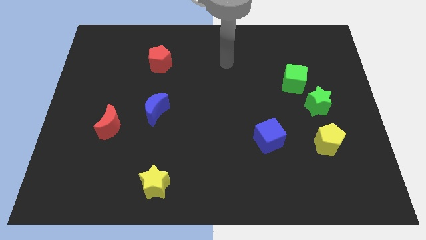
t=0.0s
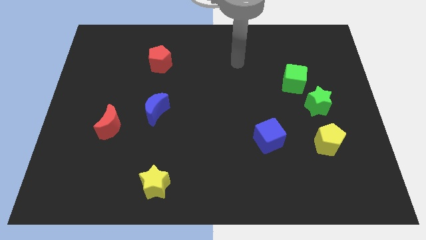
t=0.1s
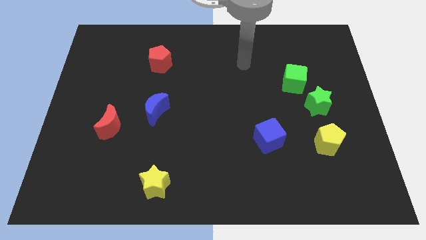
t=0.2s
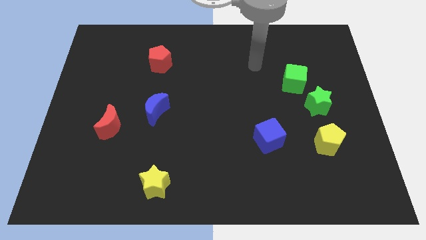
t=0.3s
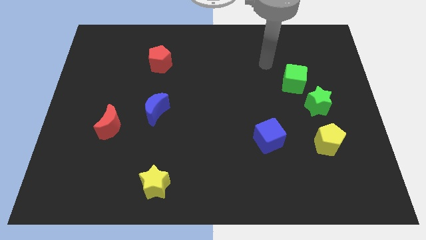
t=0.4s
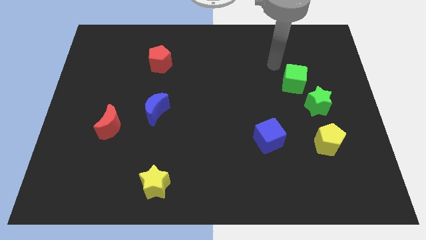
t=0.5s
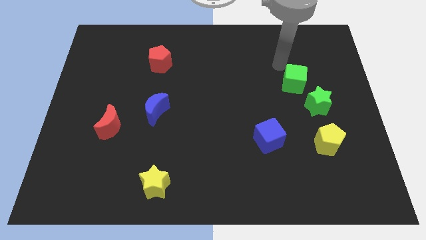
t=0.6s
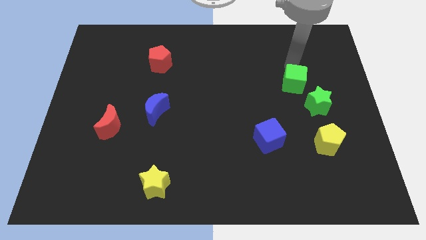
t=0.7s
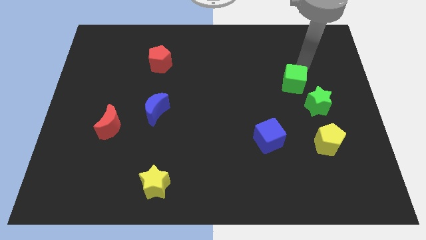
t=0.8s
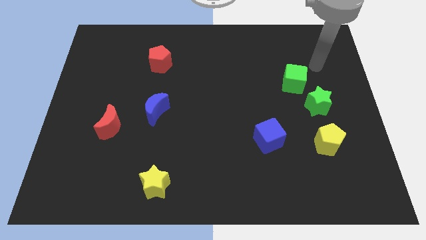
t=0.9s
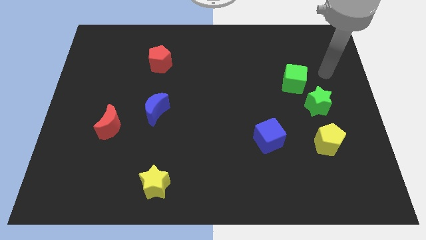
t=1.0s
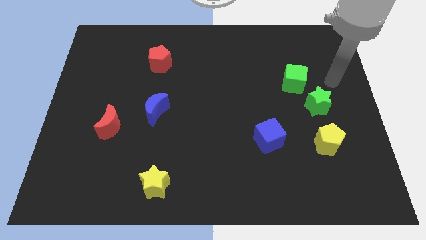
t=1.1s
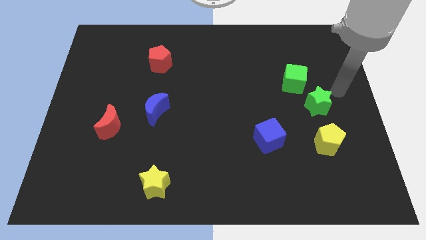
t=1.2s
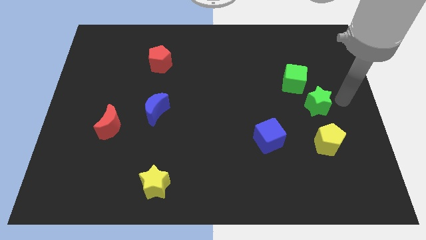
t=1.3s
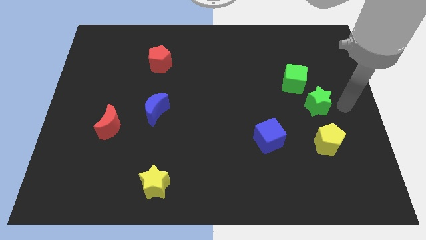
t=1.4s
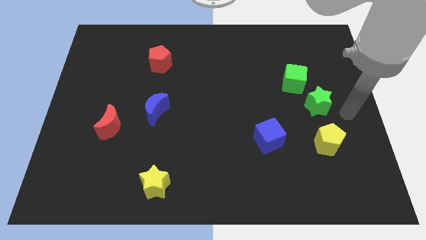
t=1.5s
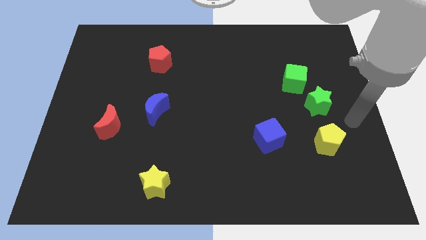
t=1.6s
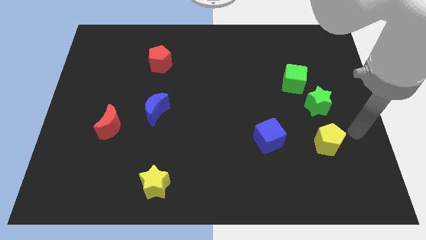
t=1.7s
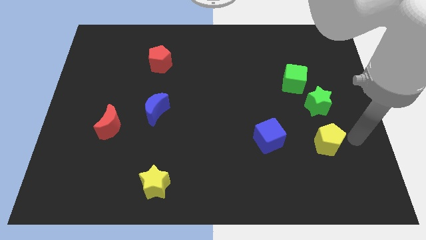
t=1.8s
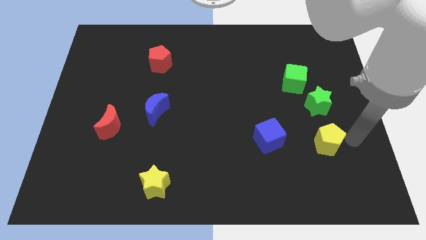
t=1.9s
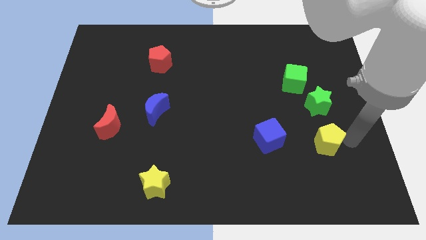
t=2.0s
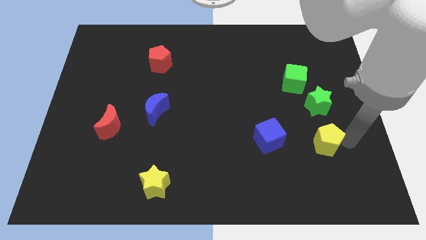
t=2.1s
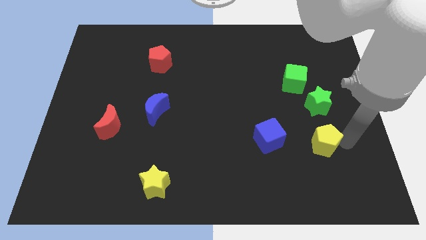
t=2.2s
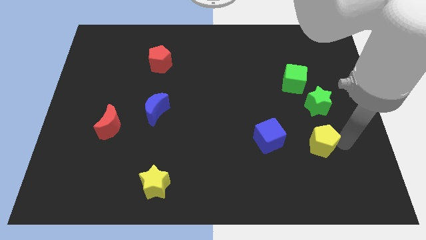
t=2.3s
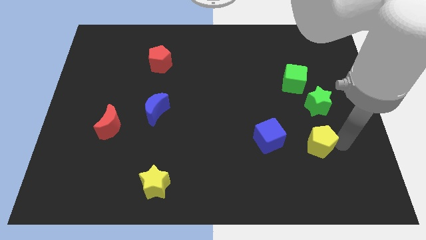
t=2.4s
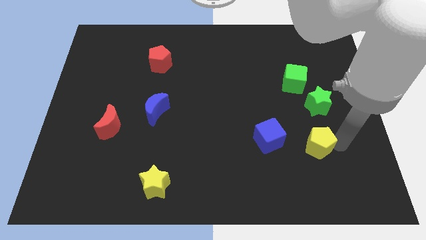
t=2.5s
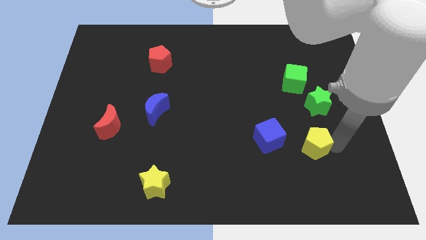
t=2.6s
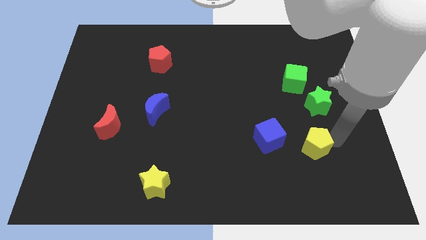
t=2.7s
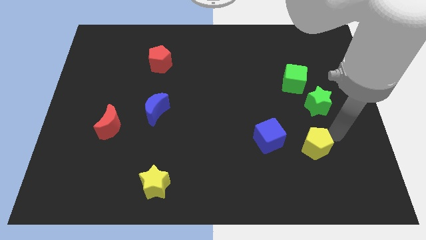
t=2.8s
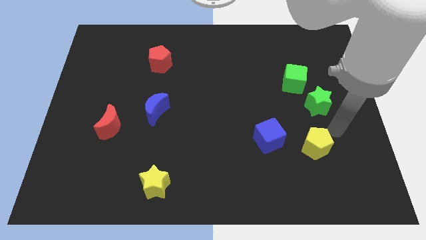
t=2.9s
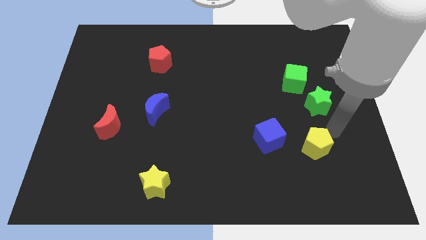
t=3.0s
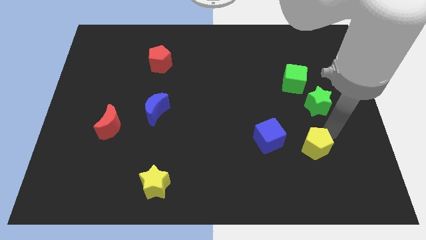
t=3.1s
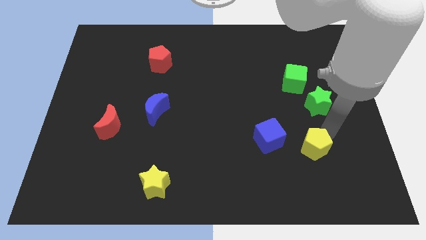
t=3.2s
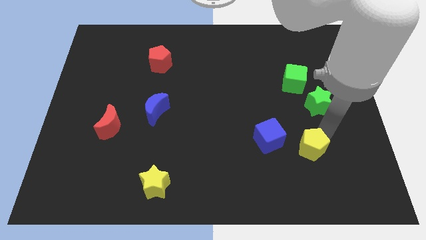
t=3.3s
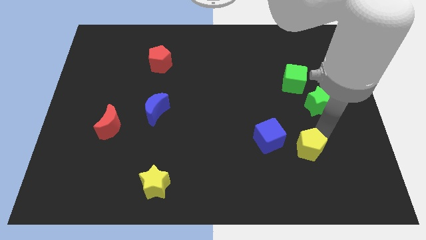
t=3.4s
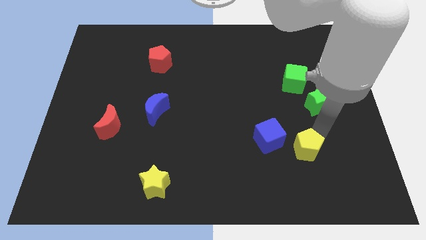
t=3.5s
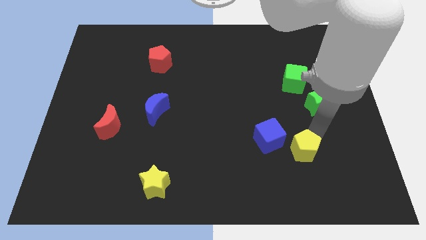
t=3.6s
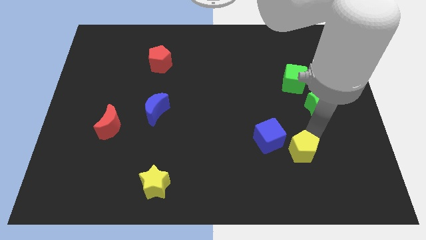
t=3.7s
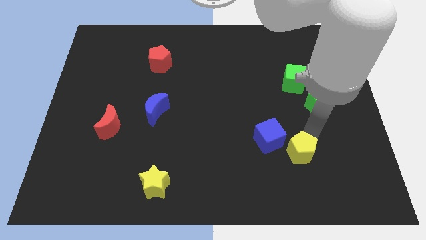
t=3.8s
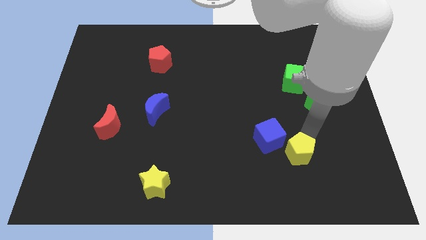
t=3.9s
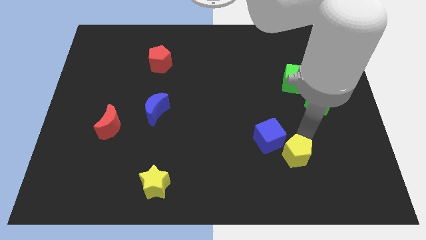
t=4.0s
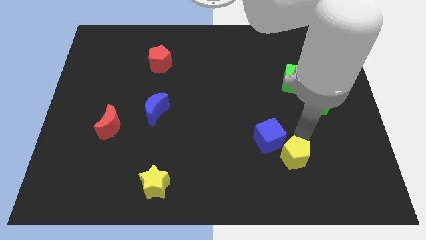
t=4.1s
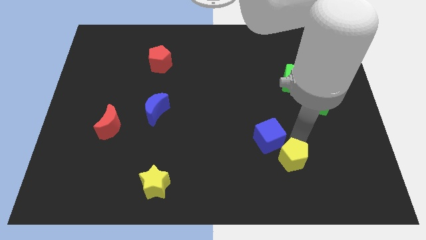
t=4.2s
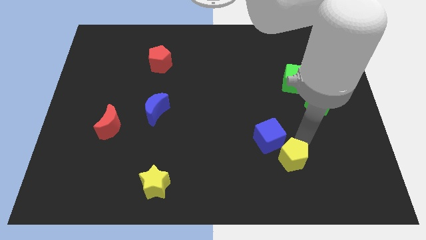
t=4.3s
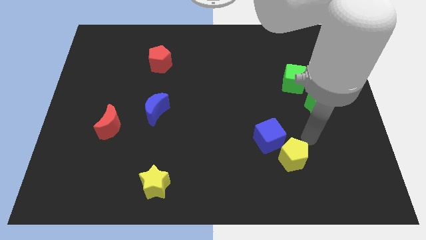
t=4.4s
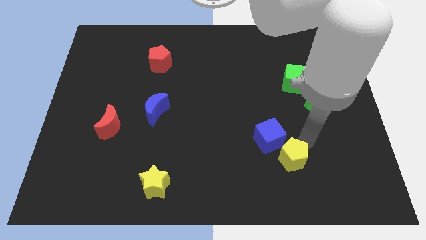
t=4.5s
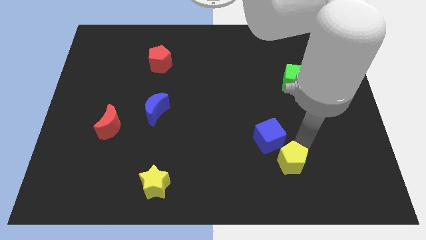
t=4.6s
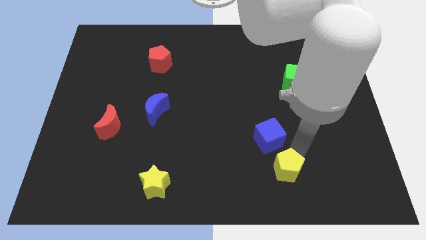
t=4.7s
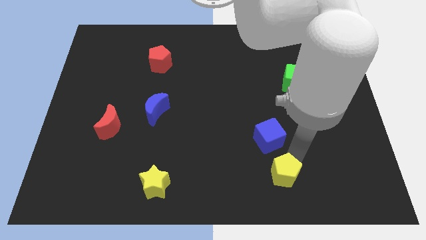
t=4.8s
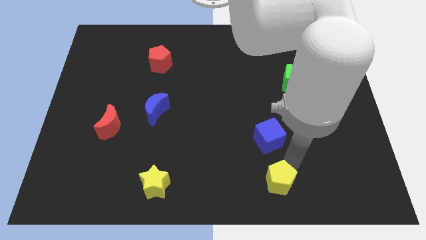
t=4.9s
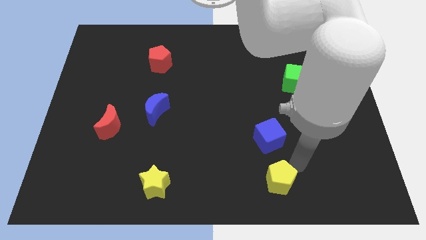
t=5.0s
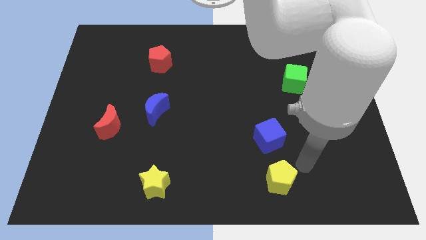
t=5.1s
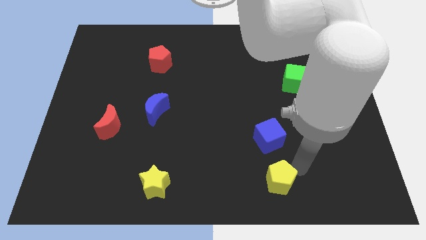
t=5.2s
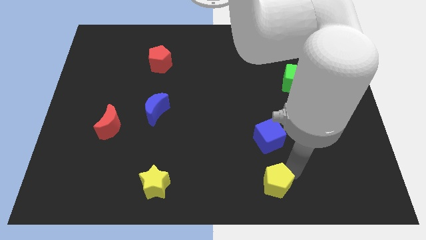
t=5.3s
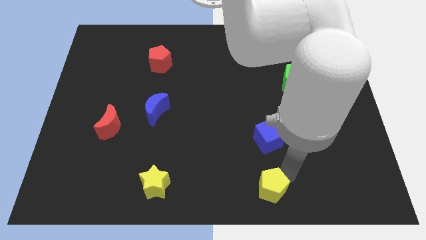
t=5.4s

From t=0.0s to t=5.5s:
move the yellow pentagon to the bottom side
